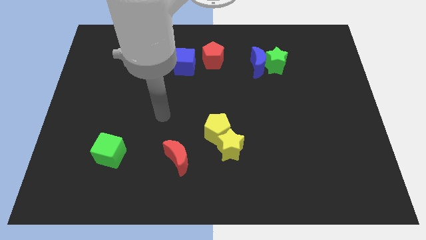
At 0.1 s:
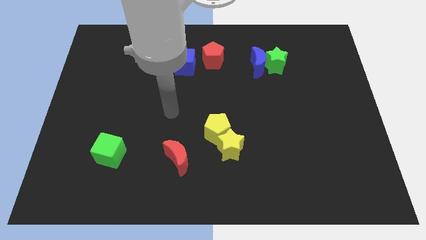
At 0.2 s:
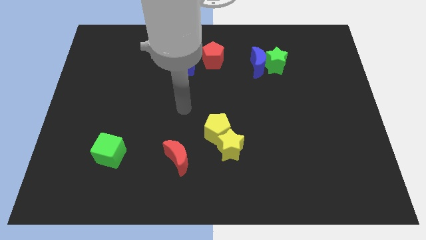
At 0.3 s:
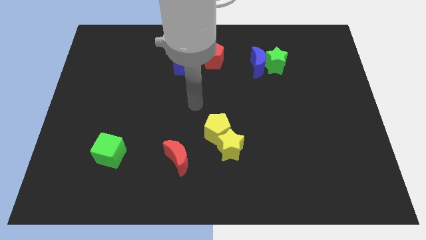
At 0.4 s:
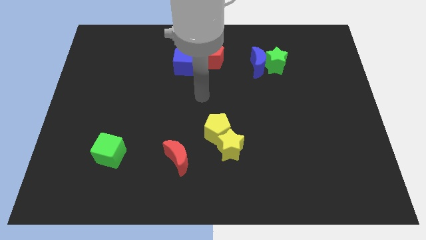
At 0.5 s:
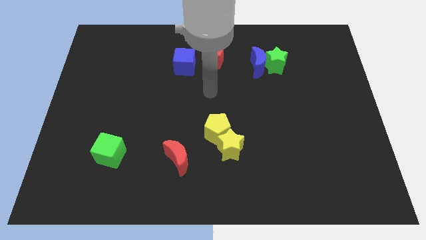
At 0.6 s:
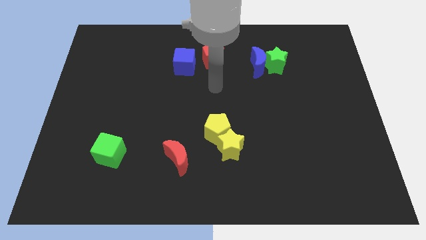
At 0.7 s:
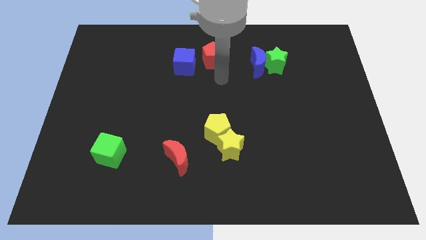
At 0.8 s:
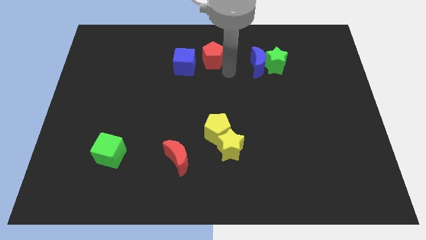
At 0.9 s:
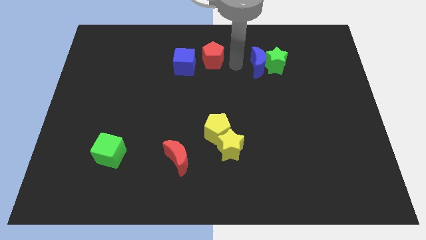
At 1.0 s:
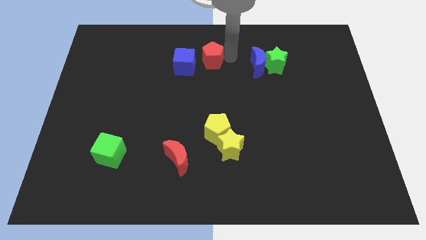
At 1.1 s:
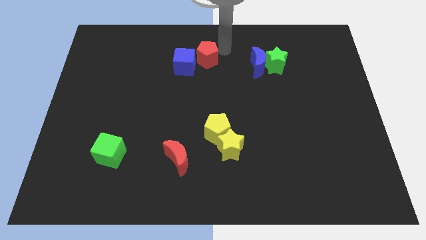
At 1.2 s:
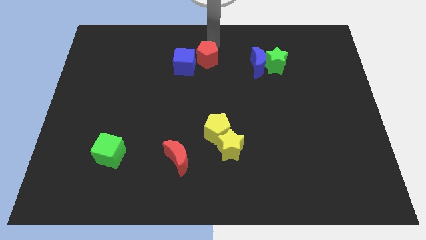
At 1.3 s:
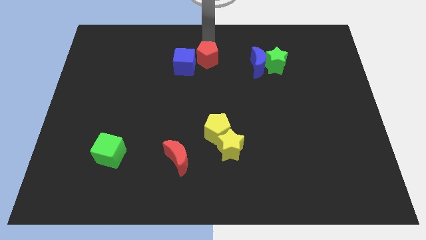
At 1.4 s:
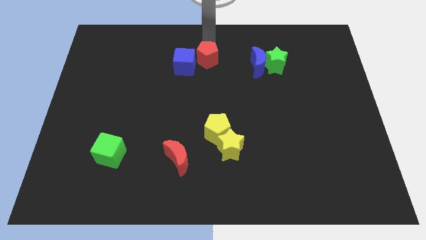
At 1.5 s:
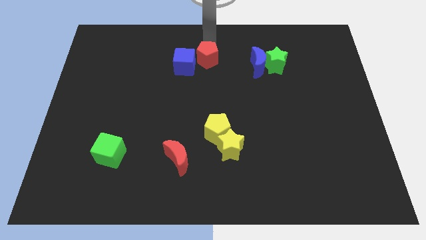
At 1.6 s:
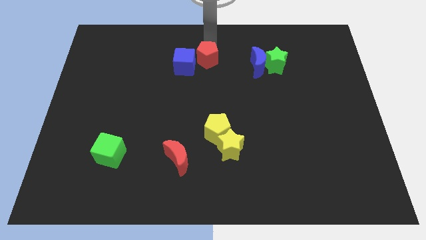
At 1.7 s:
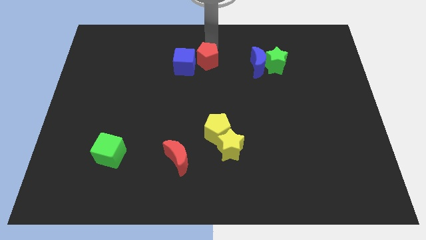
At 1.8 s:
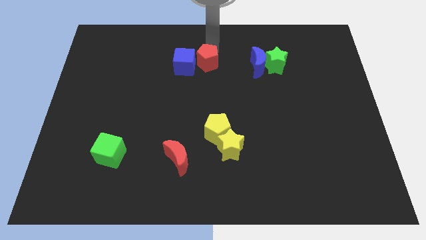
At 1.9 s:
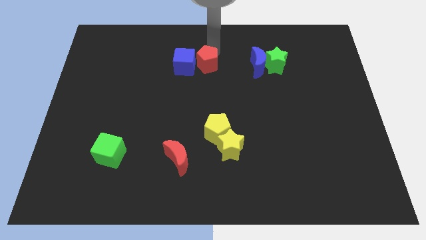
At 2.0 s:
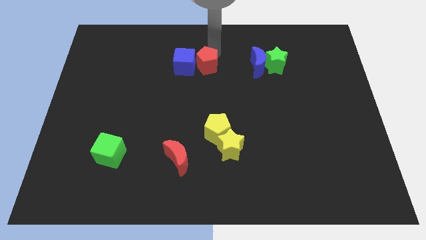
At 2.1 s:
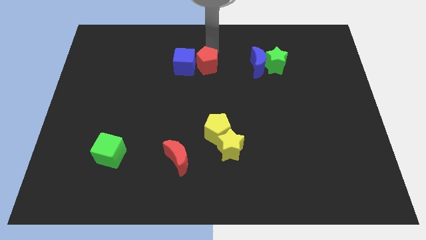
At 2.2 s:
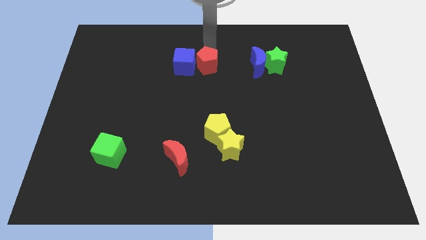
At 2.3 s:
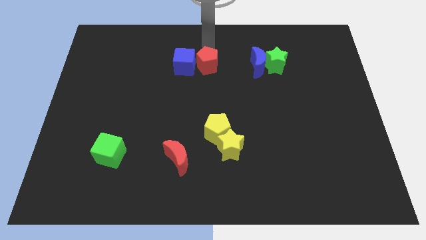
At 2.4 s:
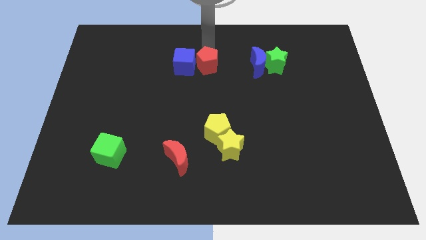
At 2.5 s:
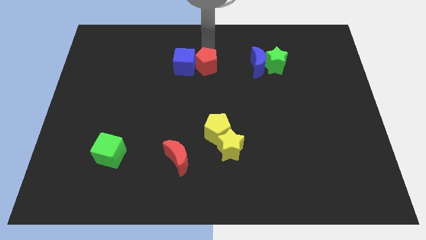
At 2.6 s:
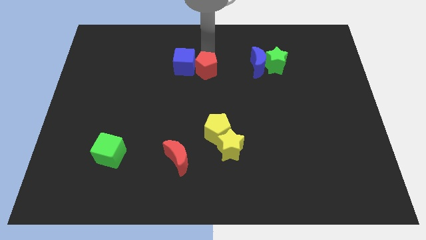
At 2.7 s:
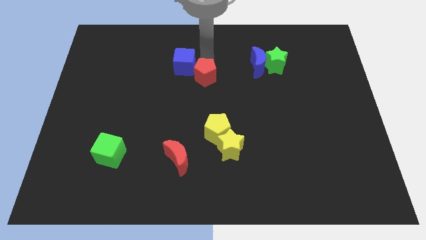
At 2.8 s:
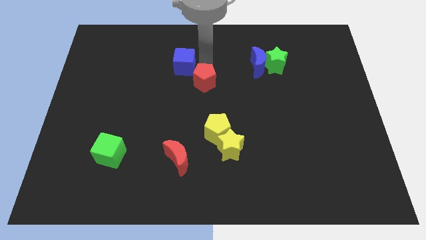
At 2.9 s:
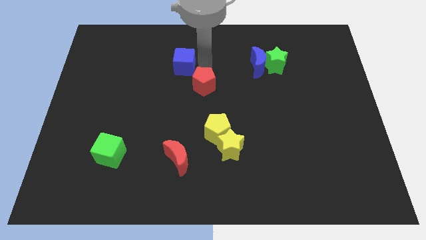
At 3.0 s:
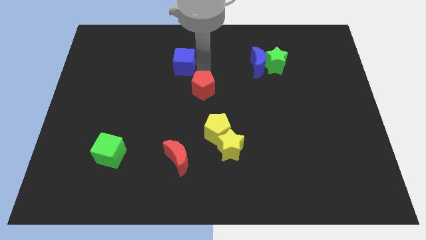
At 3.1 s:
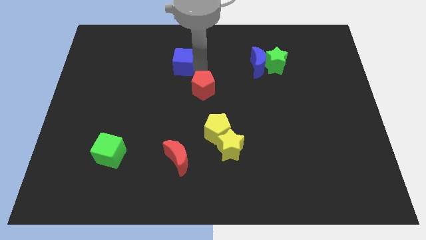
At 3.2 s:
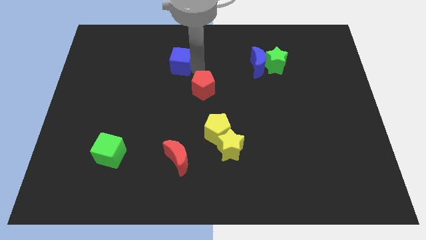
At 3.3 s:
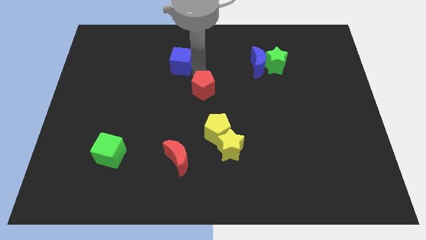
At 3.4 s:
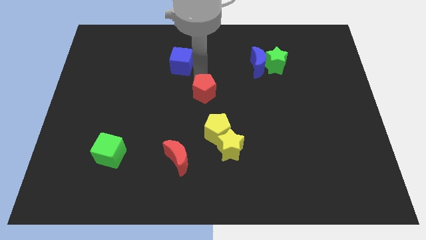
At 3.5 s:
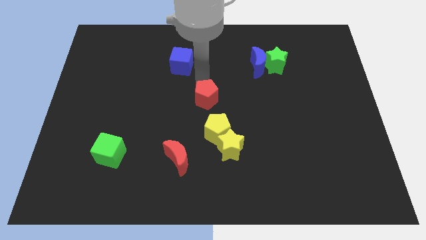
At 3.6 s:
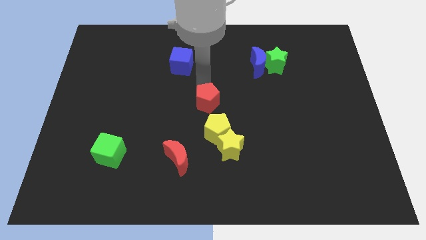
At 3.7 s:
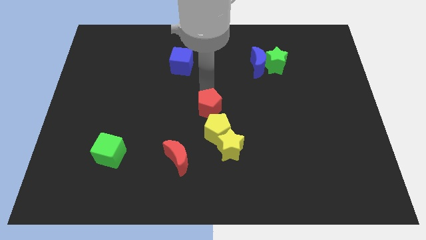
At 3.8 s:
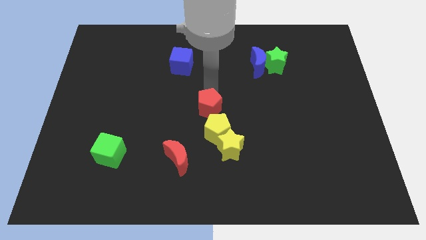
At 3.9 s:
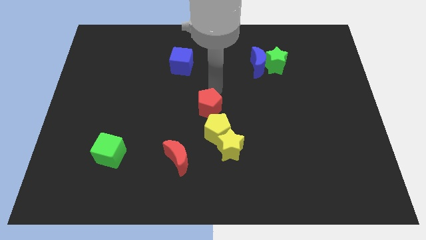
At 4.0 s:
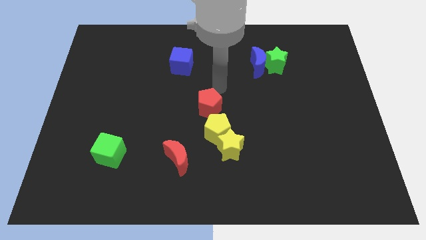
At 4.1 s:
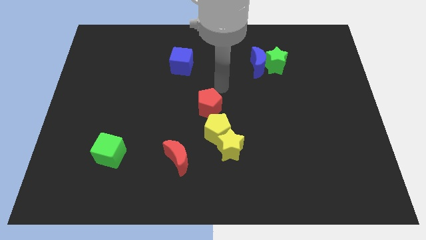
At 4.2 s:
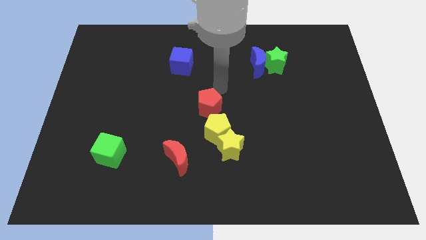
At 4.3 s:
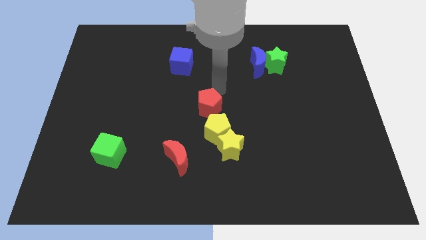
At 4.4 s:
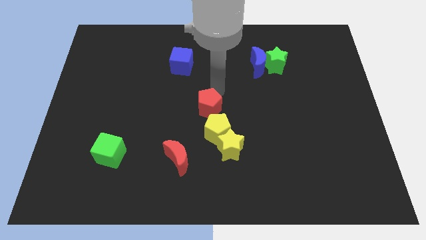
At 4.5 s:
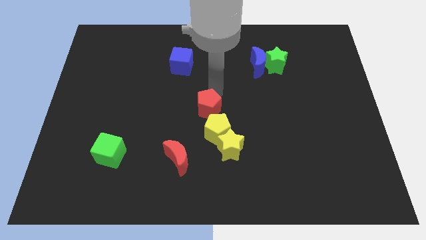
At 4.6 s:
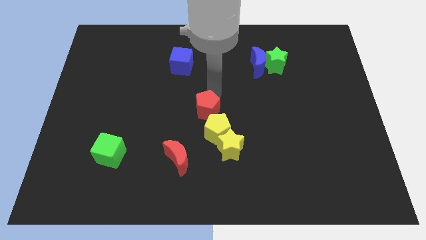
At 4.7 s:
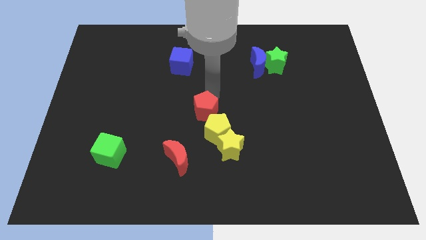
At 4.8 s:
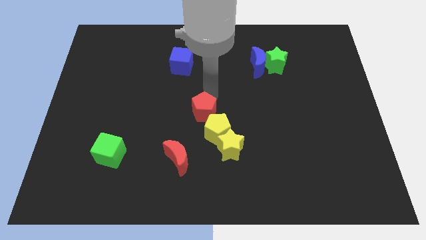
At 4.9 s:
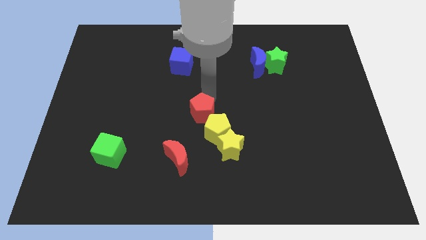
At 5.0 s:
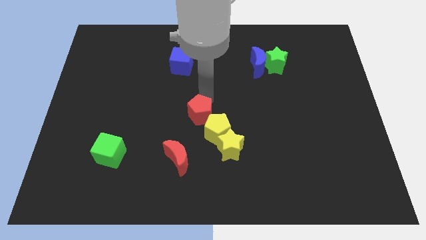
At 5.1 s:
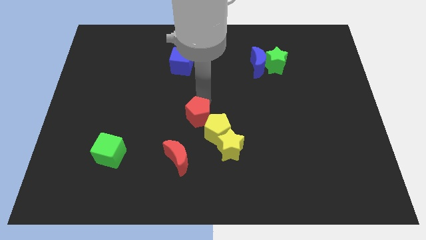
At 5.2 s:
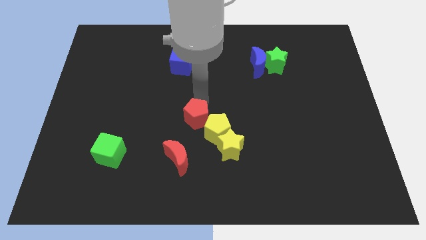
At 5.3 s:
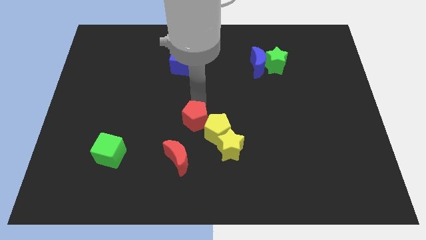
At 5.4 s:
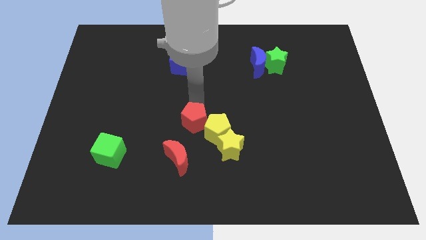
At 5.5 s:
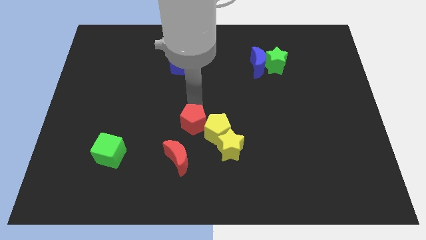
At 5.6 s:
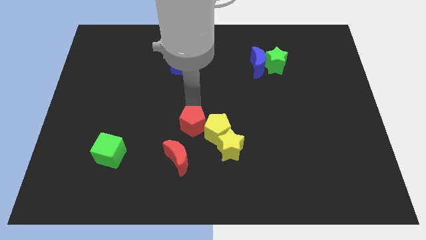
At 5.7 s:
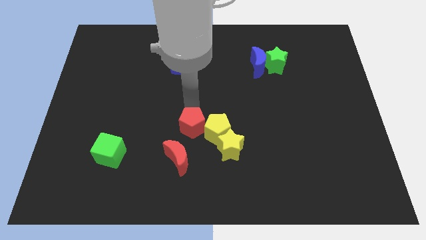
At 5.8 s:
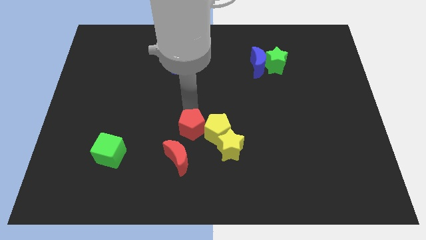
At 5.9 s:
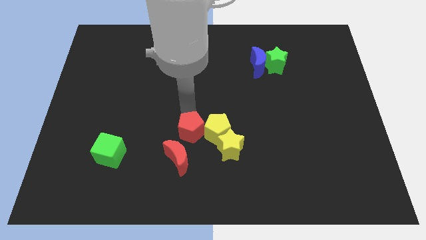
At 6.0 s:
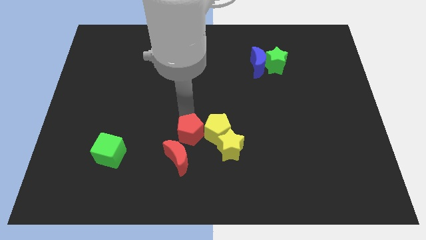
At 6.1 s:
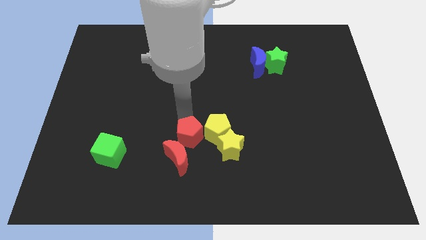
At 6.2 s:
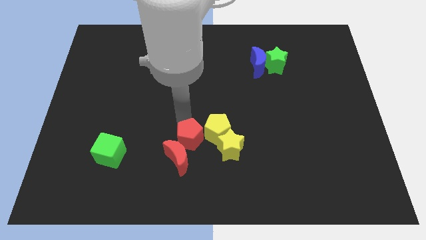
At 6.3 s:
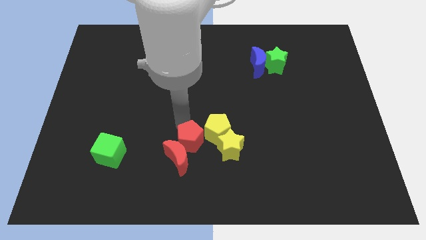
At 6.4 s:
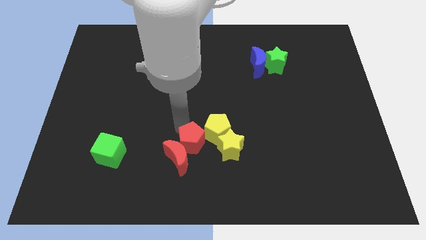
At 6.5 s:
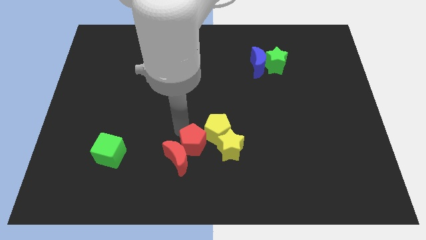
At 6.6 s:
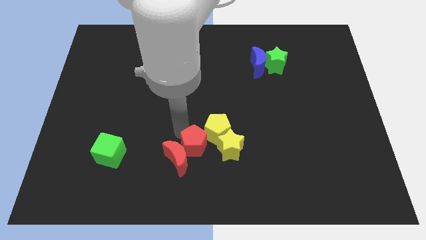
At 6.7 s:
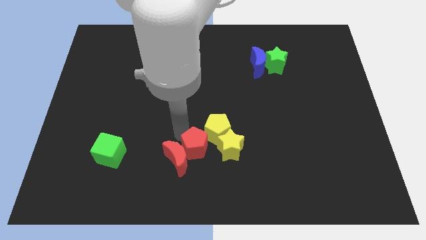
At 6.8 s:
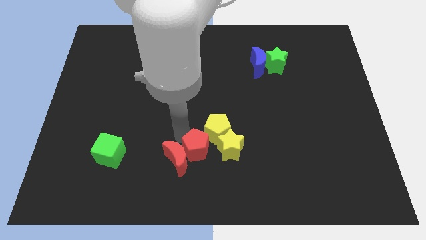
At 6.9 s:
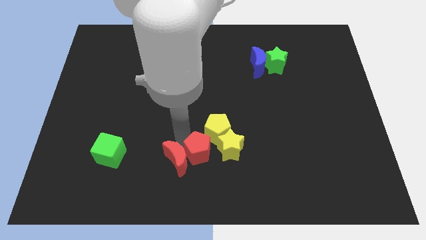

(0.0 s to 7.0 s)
move the red pentagon to the bottom right of the red moon
